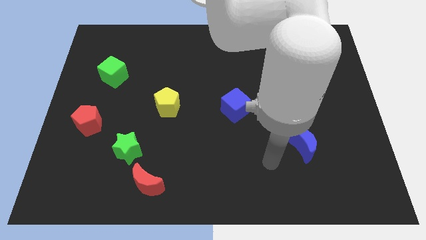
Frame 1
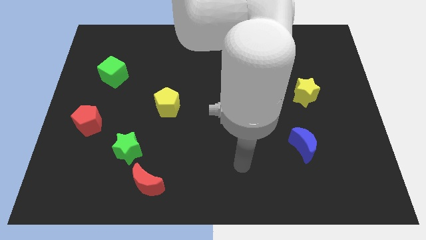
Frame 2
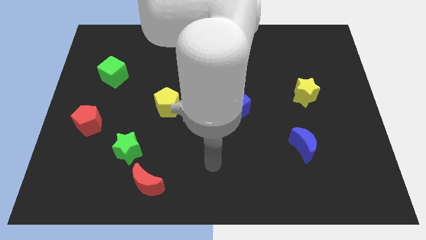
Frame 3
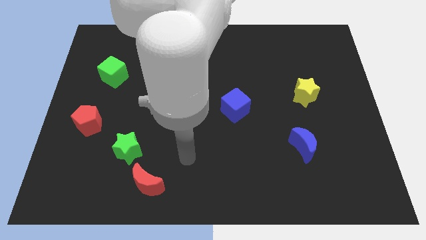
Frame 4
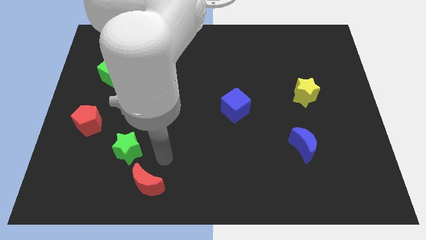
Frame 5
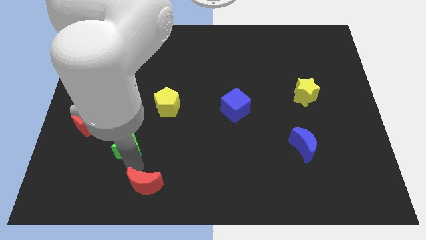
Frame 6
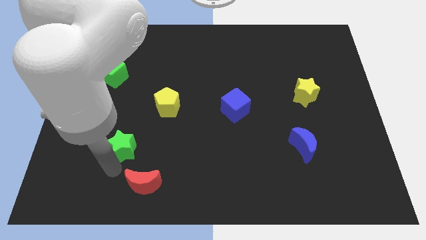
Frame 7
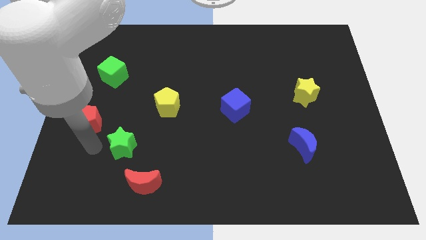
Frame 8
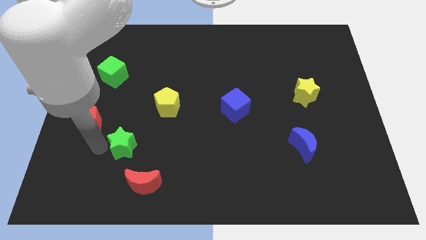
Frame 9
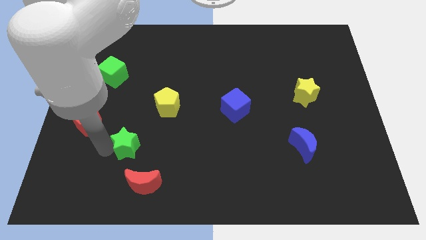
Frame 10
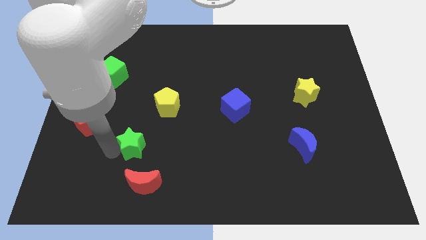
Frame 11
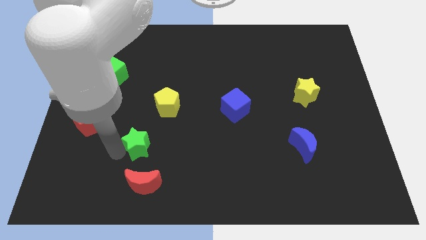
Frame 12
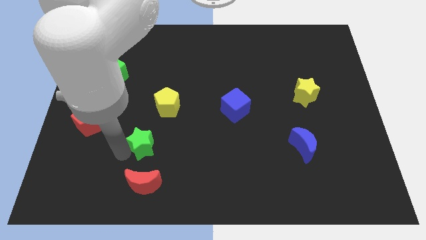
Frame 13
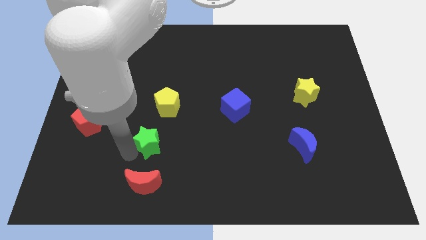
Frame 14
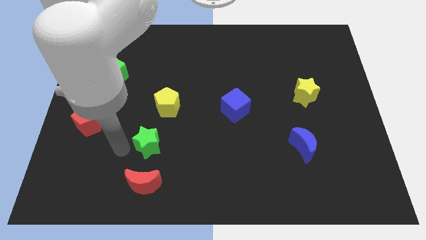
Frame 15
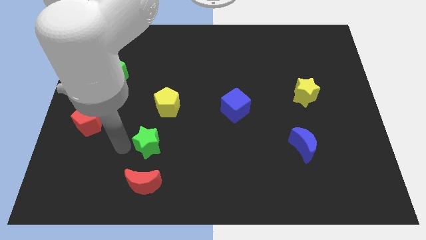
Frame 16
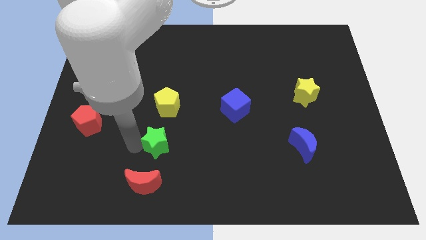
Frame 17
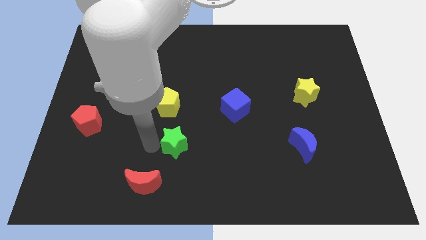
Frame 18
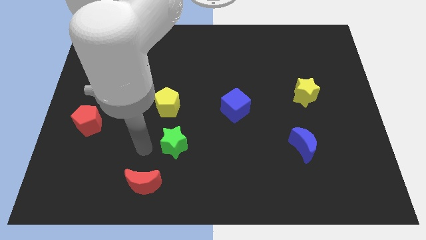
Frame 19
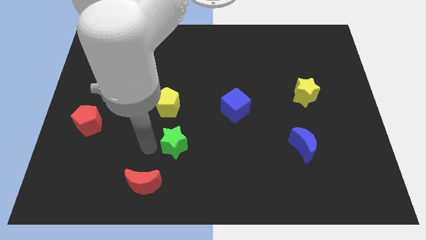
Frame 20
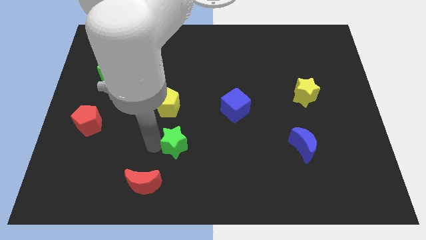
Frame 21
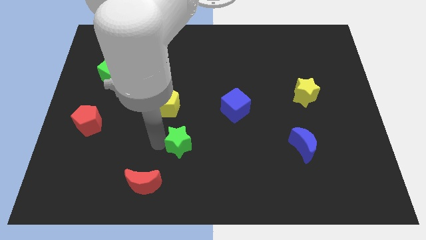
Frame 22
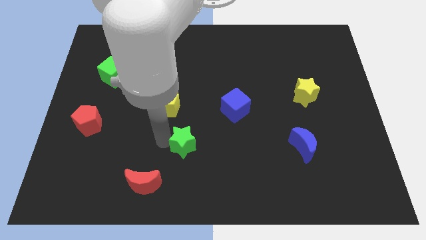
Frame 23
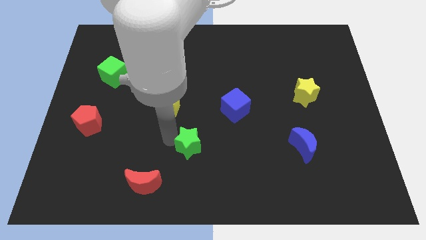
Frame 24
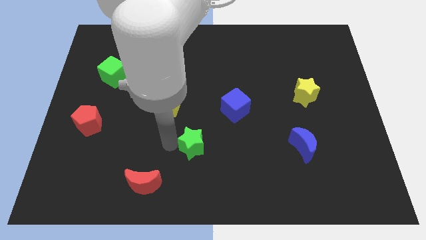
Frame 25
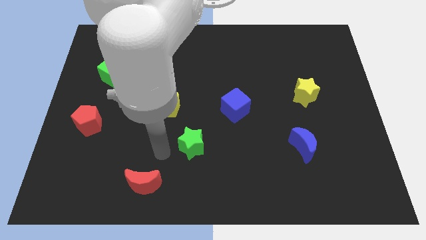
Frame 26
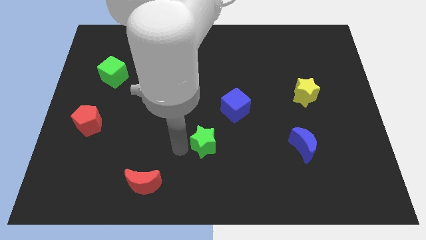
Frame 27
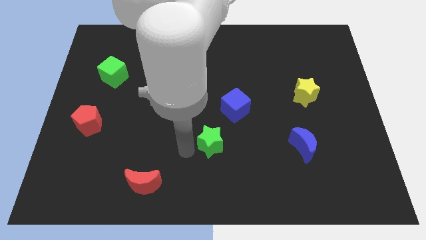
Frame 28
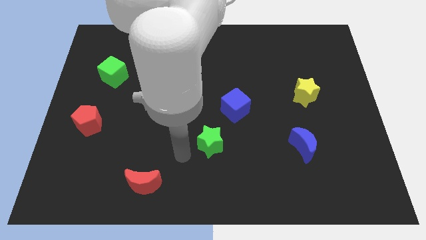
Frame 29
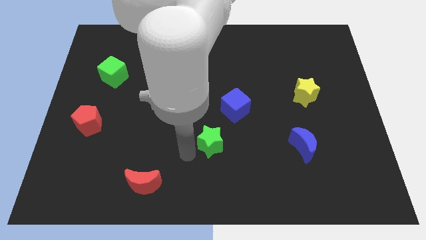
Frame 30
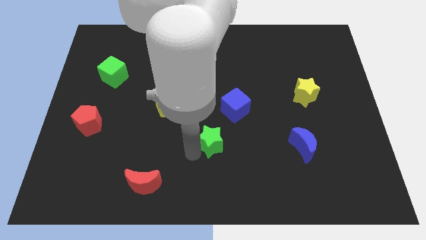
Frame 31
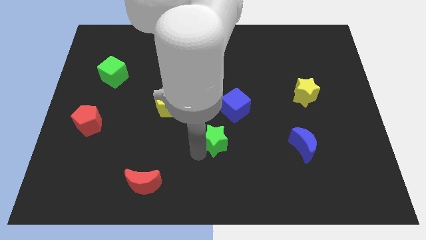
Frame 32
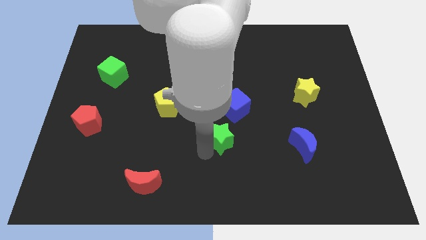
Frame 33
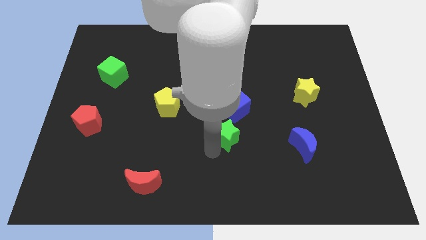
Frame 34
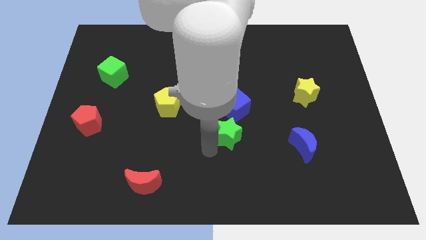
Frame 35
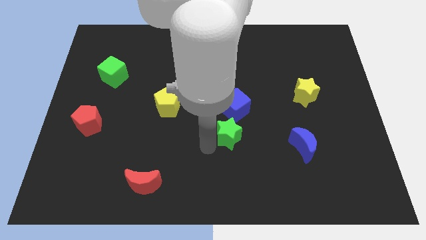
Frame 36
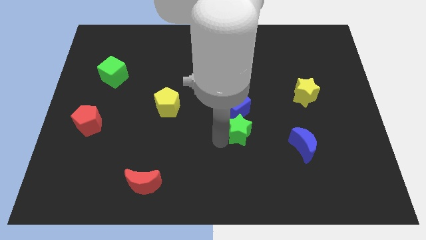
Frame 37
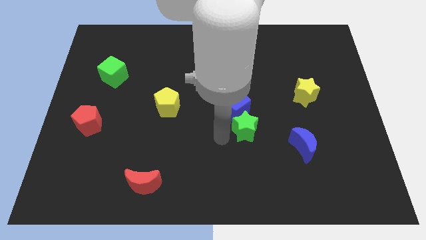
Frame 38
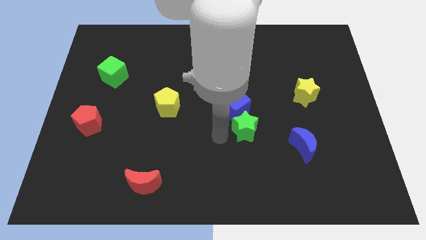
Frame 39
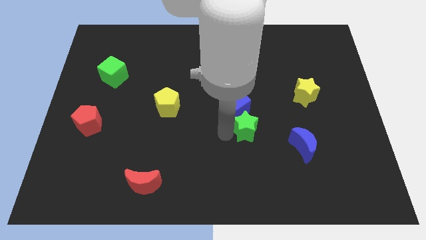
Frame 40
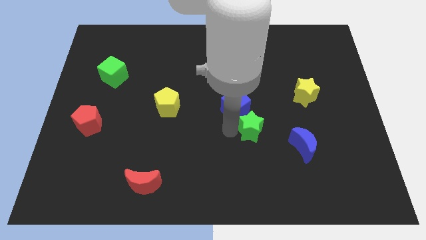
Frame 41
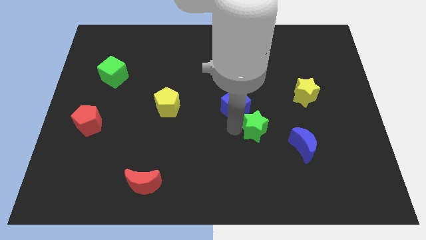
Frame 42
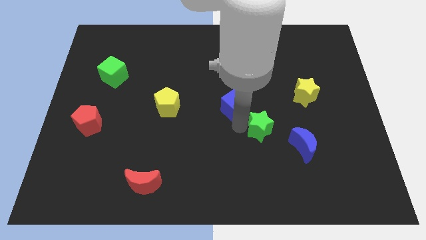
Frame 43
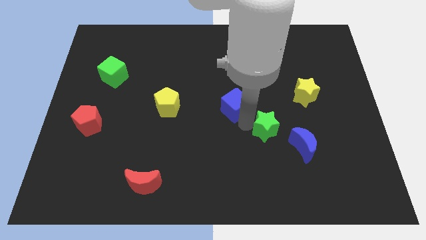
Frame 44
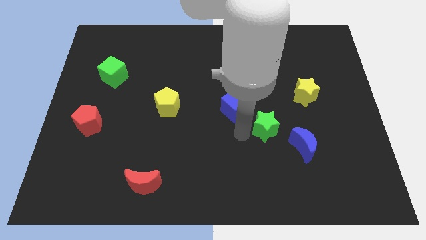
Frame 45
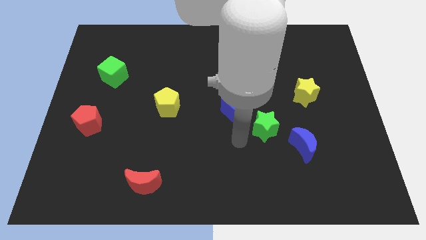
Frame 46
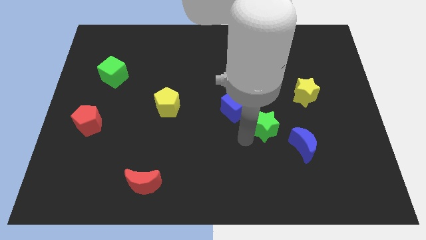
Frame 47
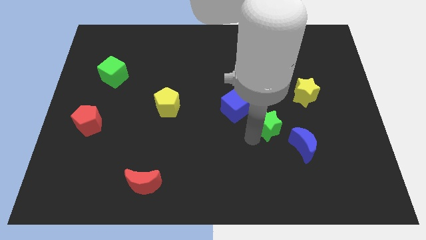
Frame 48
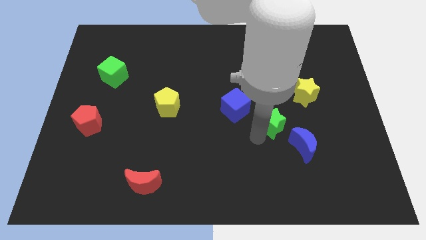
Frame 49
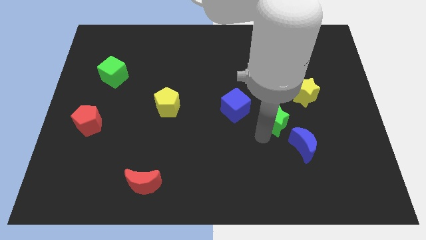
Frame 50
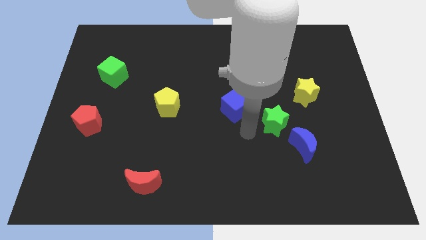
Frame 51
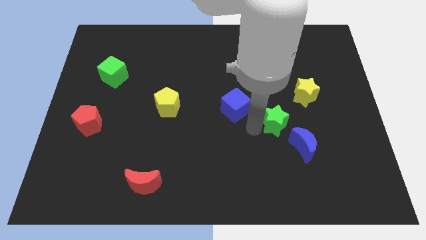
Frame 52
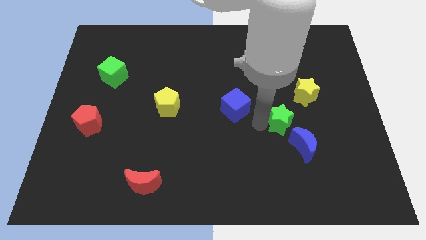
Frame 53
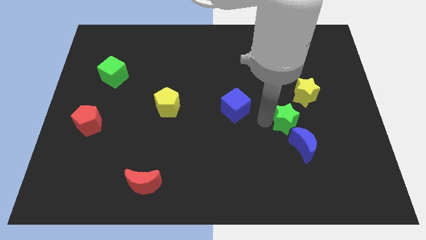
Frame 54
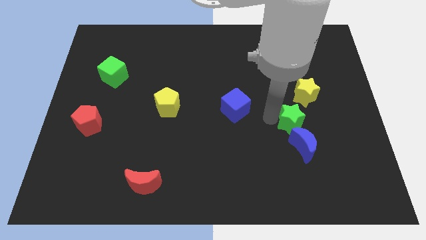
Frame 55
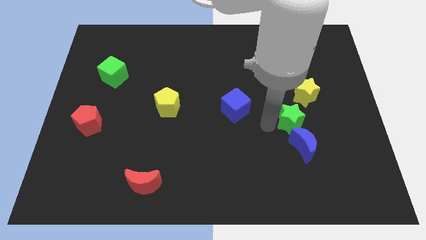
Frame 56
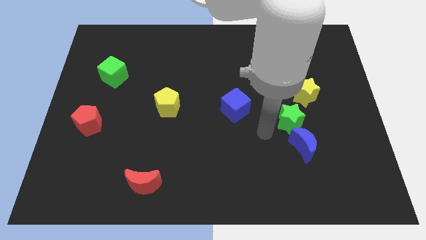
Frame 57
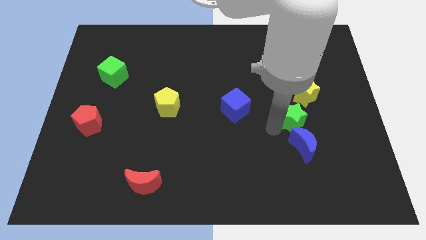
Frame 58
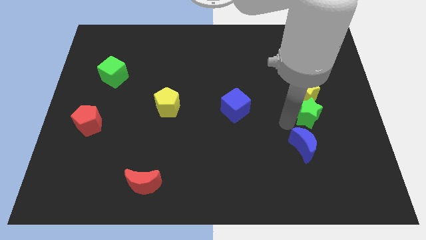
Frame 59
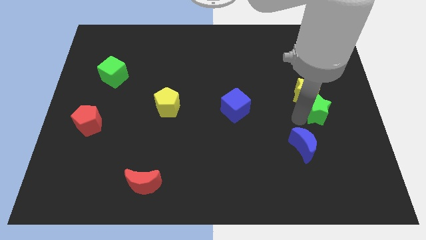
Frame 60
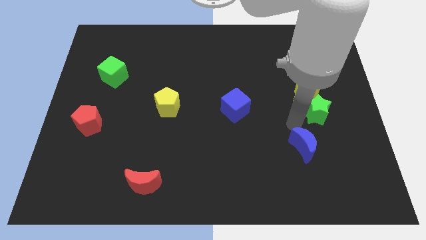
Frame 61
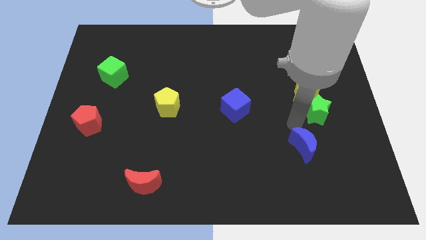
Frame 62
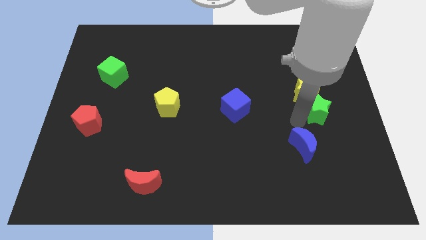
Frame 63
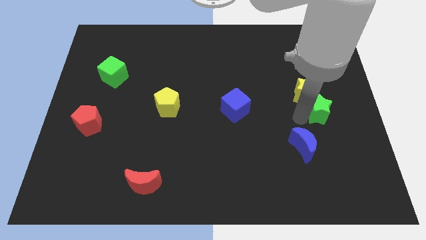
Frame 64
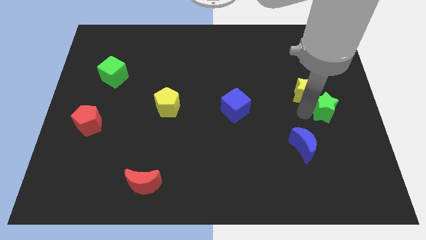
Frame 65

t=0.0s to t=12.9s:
move the green star to the right side of the board

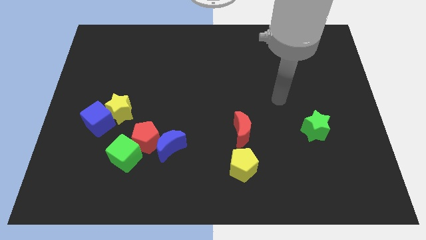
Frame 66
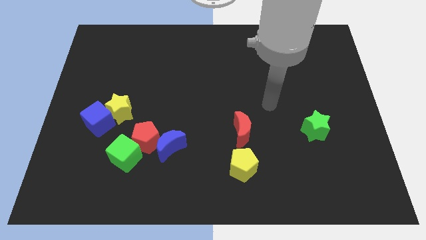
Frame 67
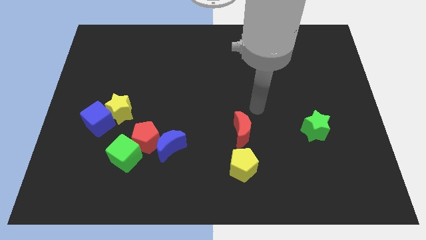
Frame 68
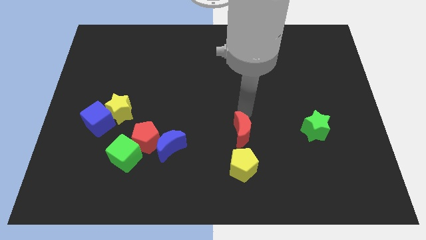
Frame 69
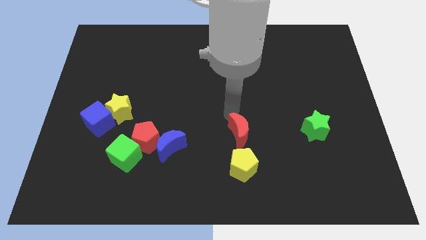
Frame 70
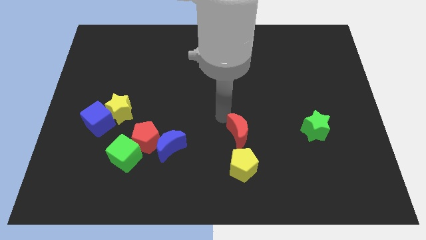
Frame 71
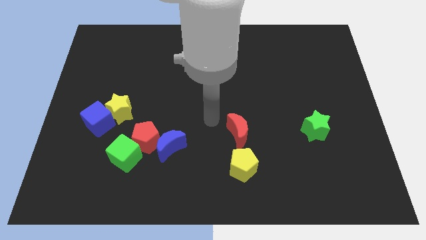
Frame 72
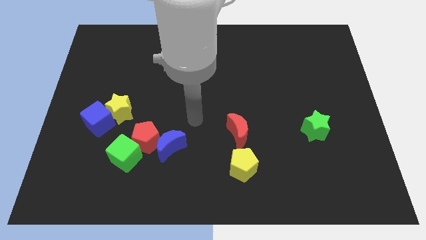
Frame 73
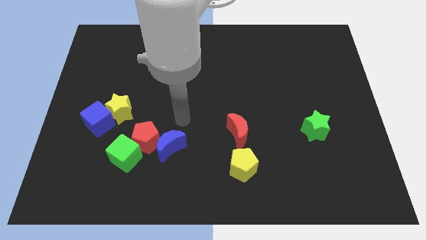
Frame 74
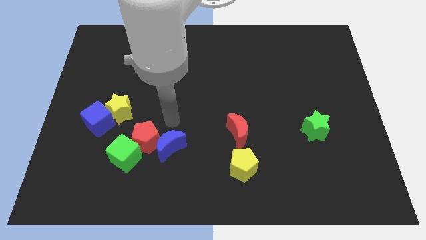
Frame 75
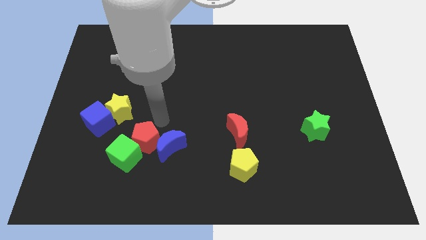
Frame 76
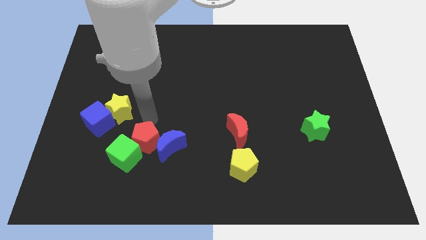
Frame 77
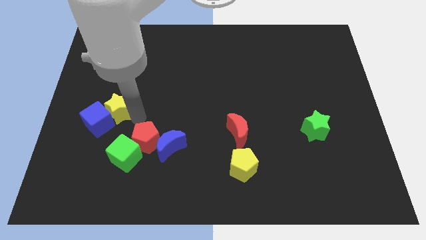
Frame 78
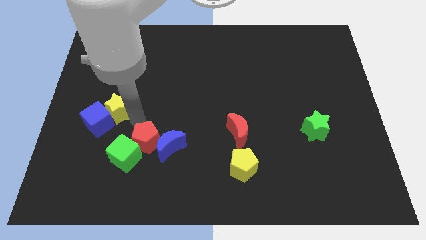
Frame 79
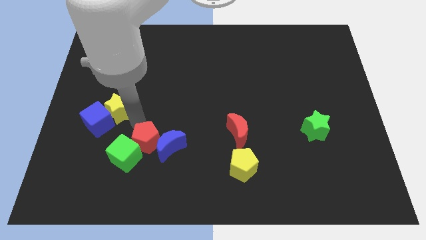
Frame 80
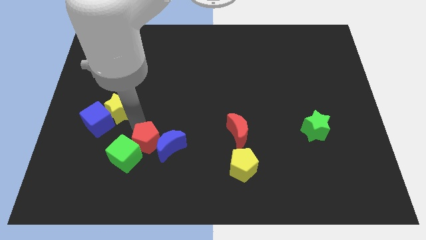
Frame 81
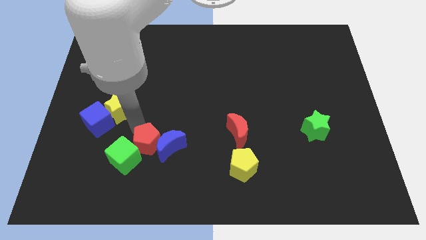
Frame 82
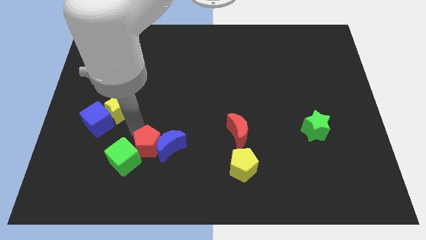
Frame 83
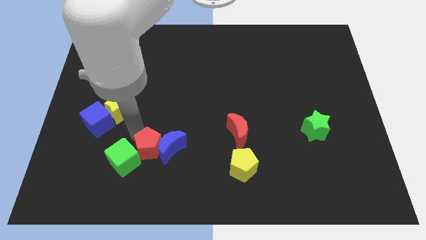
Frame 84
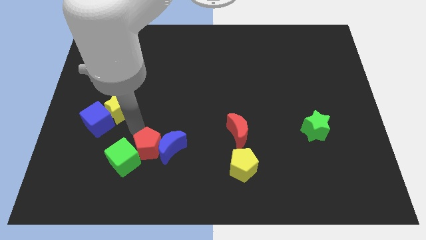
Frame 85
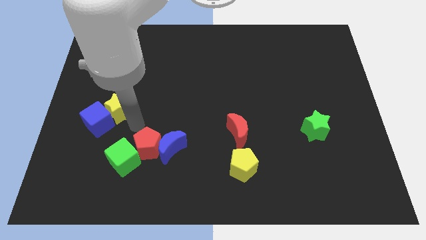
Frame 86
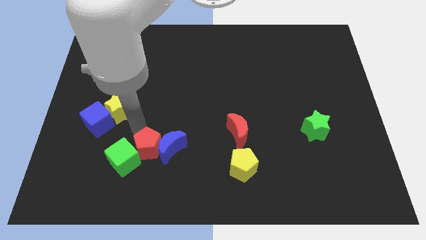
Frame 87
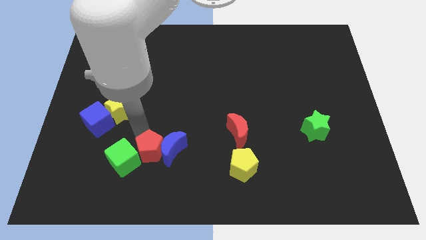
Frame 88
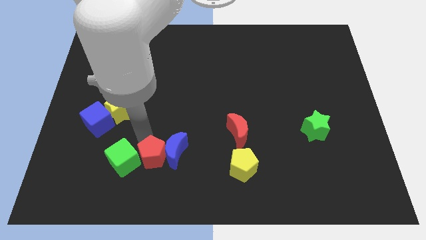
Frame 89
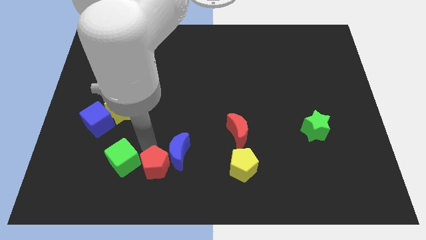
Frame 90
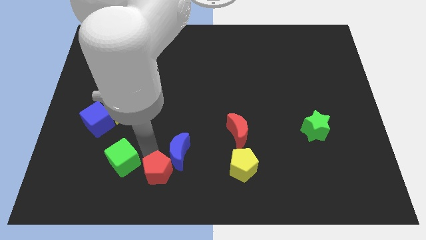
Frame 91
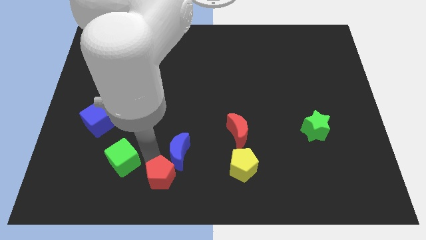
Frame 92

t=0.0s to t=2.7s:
put the red pentagon to the bottom side
